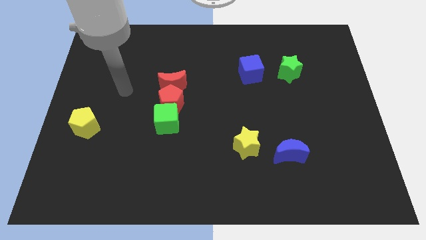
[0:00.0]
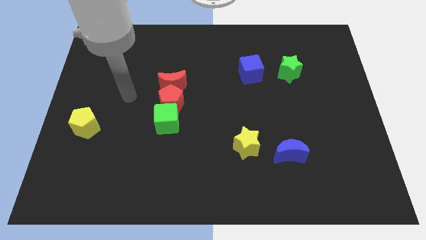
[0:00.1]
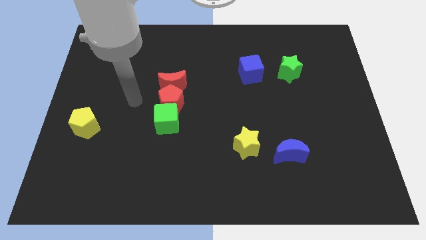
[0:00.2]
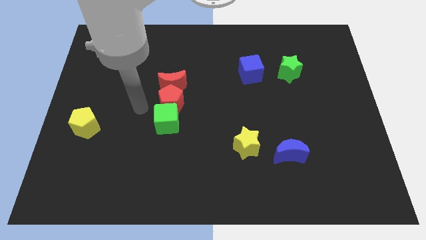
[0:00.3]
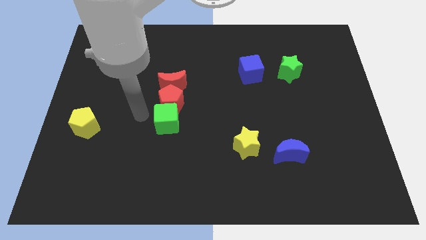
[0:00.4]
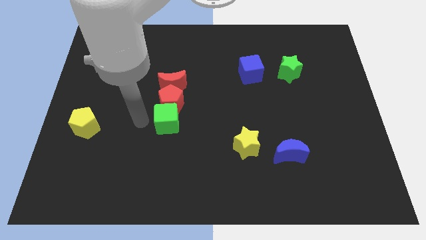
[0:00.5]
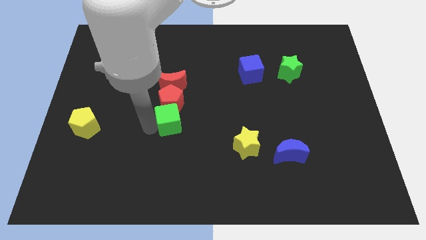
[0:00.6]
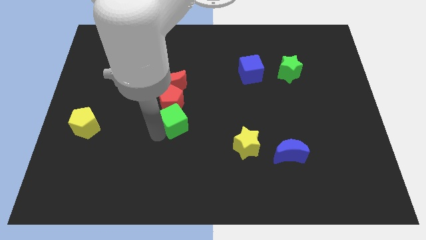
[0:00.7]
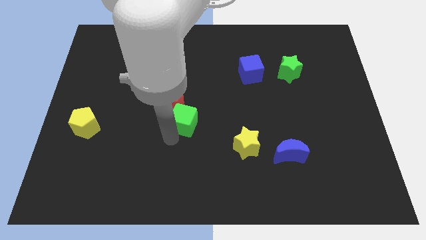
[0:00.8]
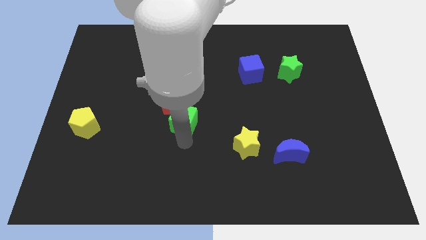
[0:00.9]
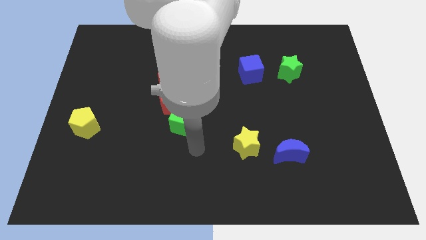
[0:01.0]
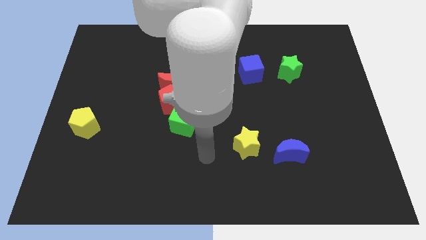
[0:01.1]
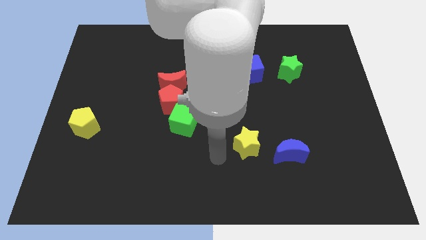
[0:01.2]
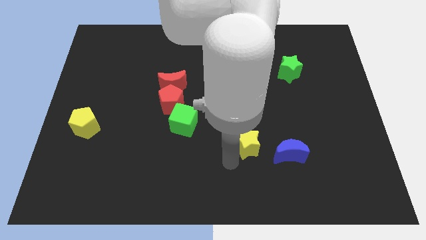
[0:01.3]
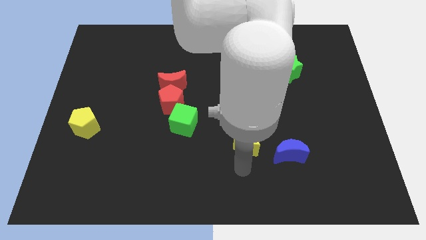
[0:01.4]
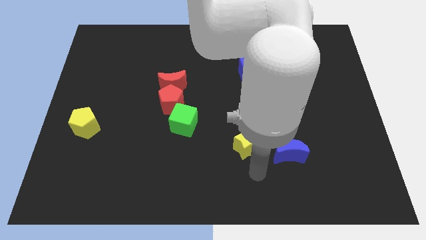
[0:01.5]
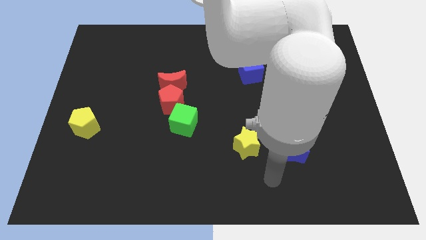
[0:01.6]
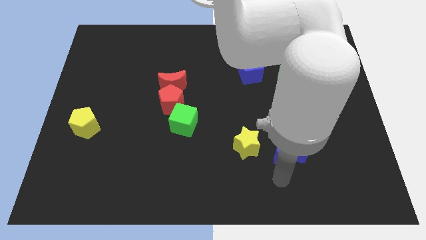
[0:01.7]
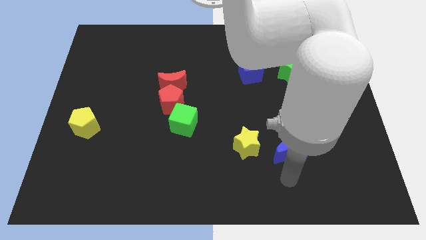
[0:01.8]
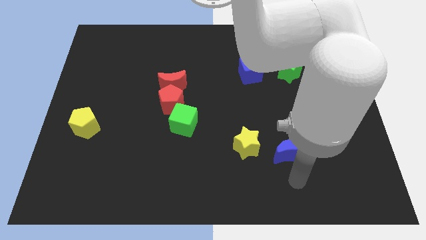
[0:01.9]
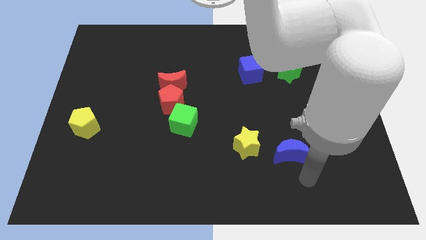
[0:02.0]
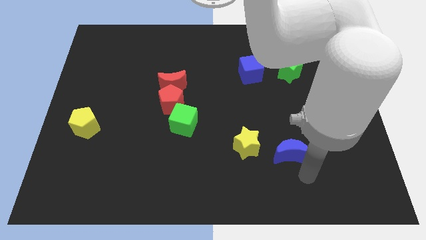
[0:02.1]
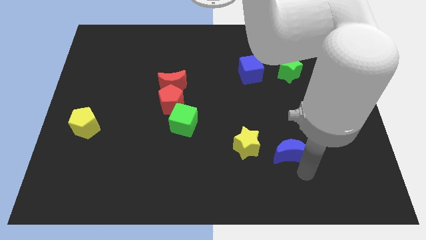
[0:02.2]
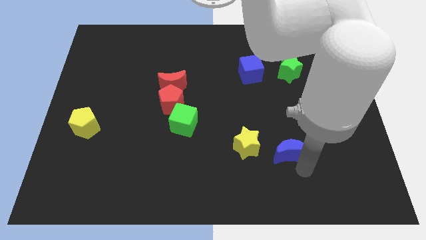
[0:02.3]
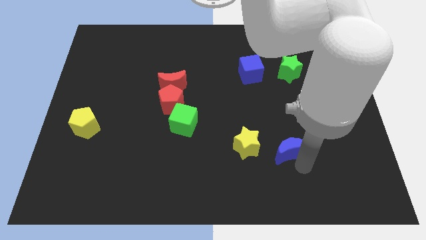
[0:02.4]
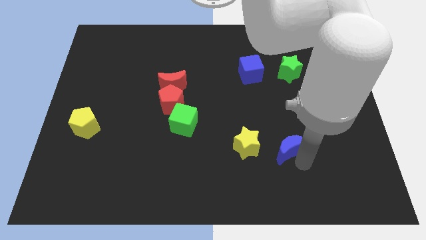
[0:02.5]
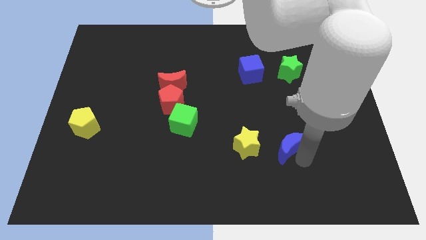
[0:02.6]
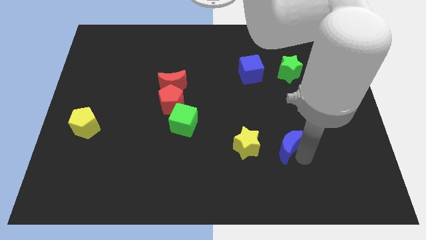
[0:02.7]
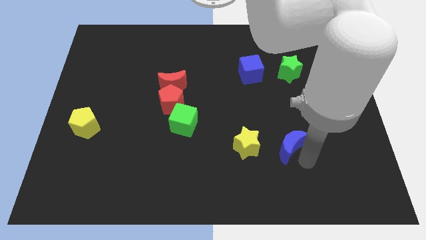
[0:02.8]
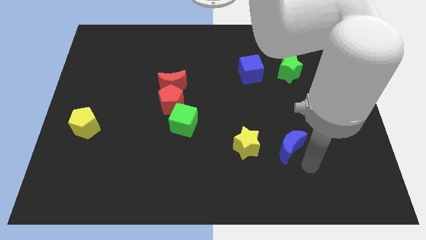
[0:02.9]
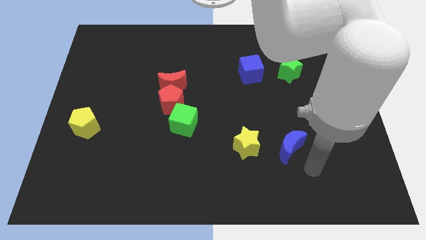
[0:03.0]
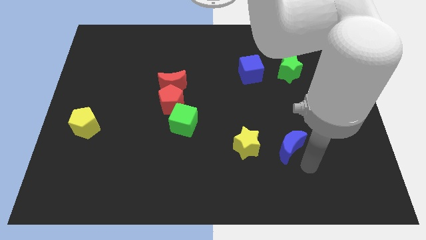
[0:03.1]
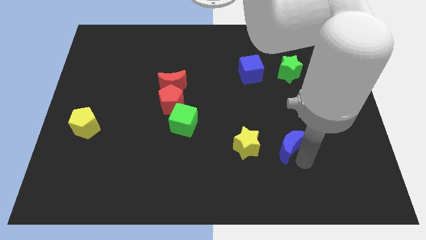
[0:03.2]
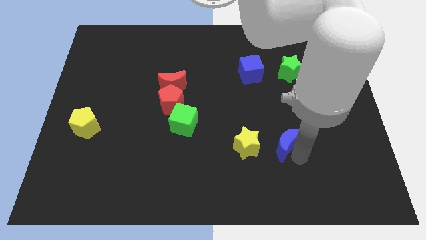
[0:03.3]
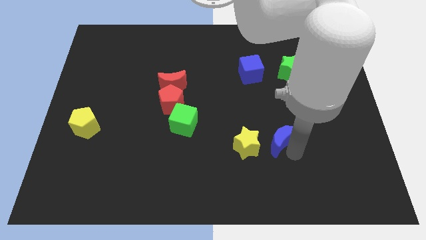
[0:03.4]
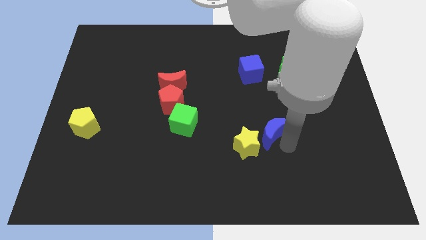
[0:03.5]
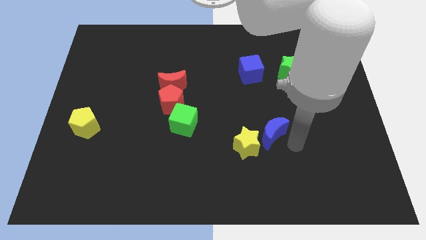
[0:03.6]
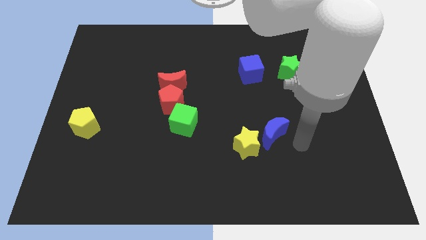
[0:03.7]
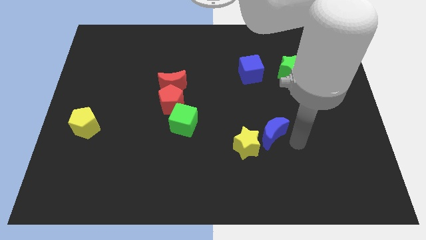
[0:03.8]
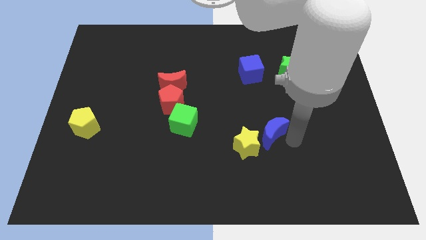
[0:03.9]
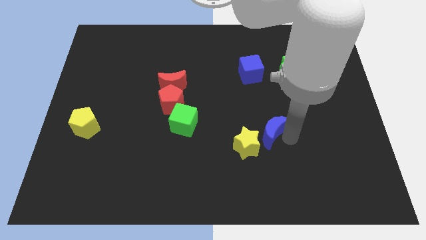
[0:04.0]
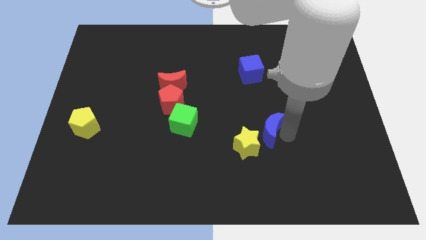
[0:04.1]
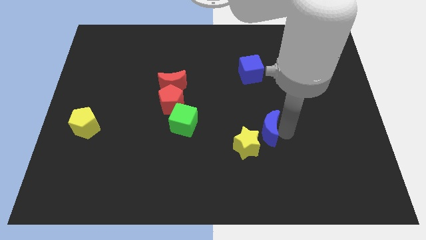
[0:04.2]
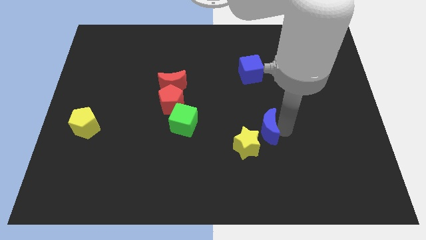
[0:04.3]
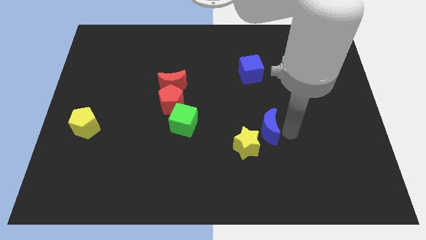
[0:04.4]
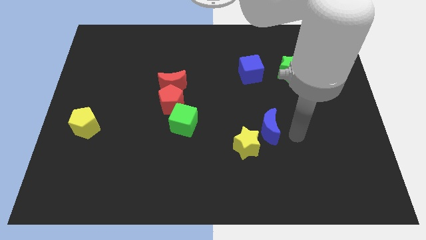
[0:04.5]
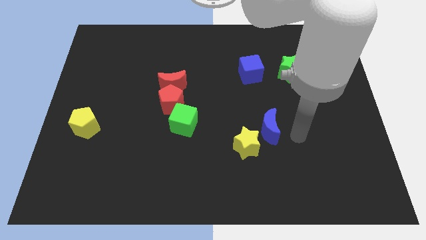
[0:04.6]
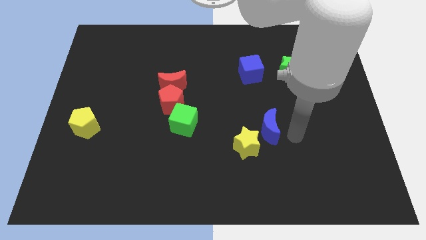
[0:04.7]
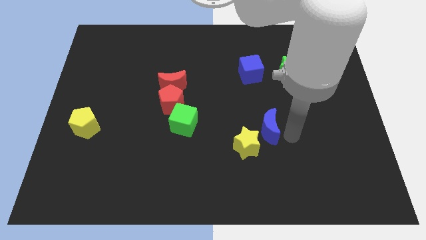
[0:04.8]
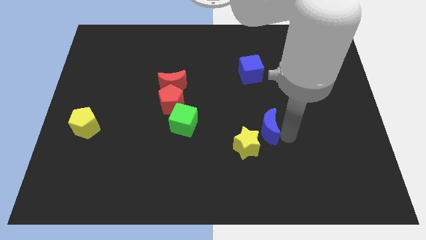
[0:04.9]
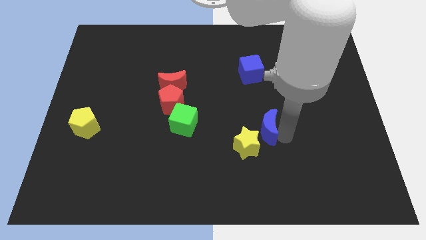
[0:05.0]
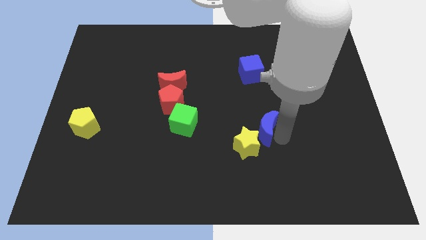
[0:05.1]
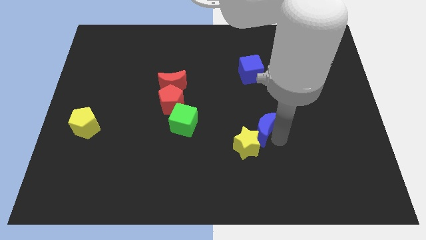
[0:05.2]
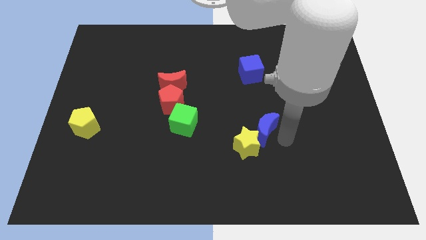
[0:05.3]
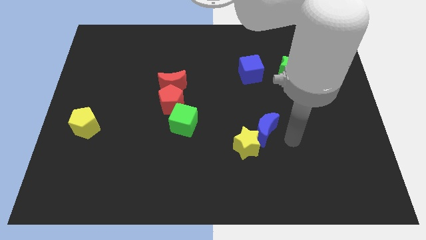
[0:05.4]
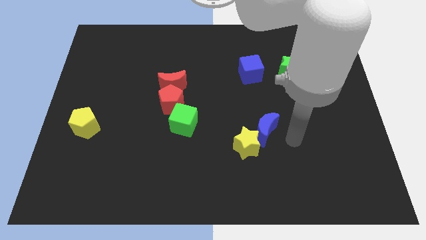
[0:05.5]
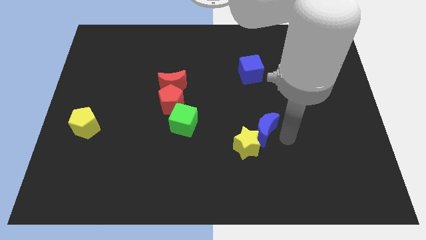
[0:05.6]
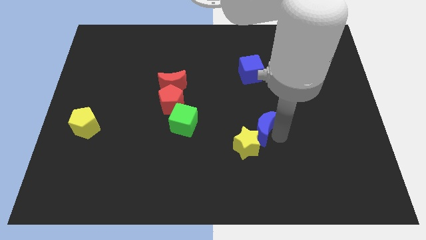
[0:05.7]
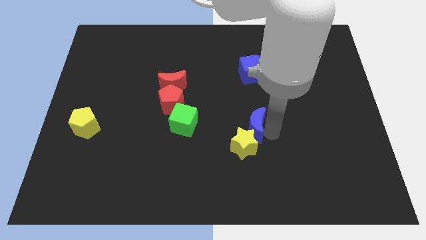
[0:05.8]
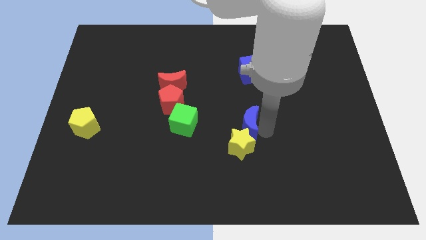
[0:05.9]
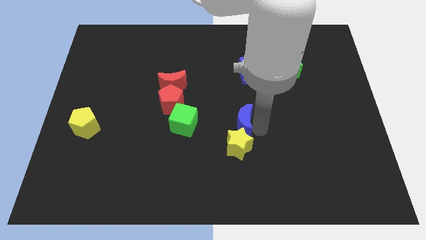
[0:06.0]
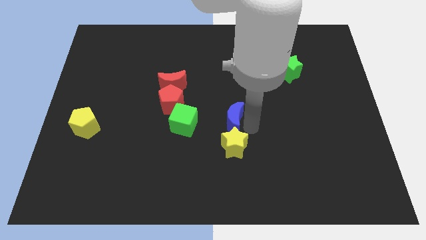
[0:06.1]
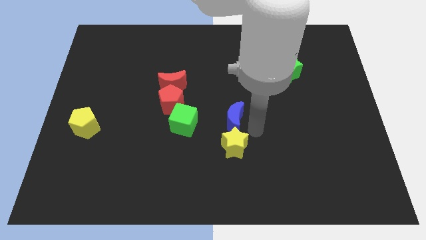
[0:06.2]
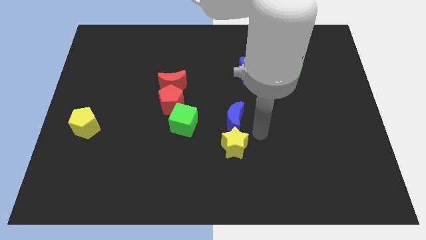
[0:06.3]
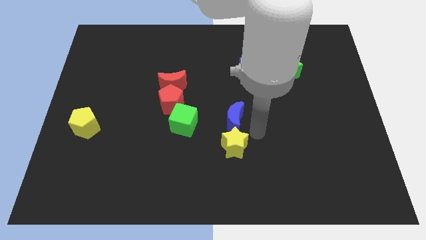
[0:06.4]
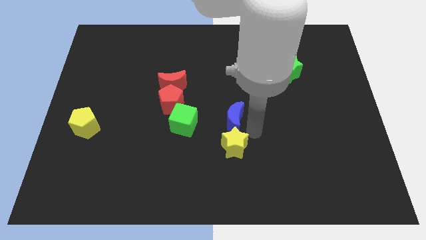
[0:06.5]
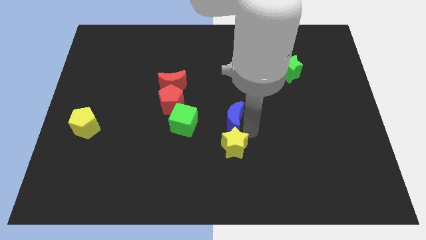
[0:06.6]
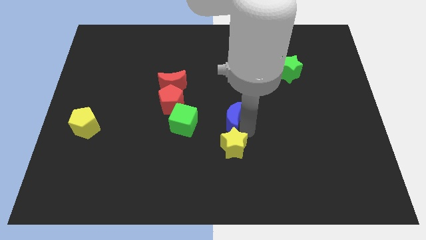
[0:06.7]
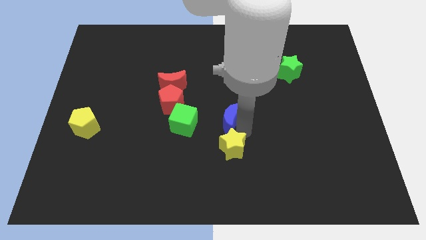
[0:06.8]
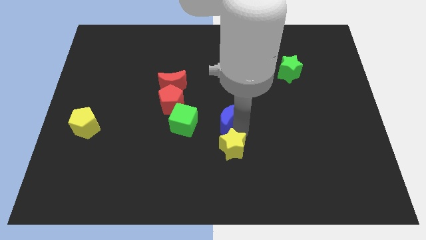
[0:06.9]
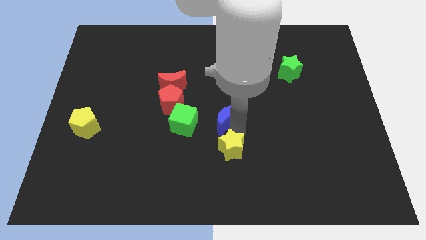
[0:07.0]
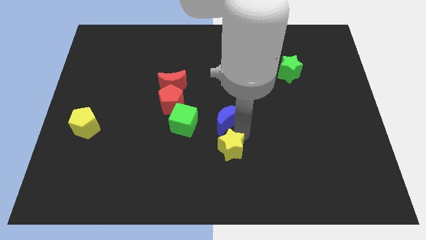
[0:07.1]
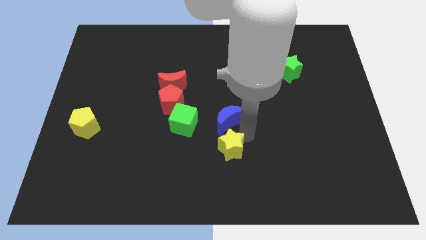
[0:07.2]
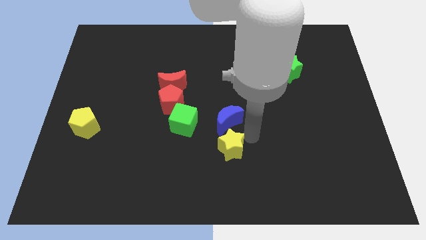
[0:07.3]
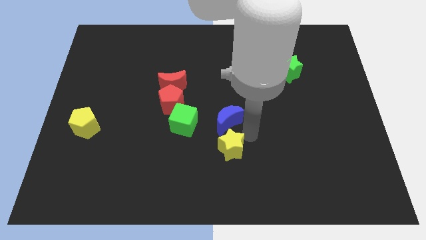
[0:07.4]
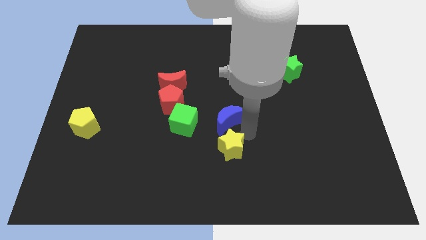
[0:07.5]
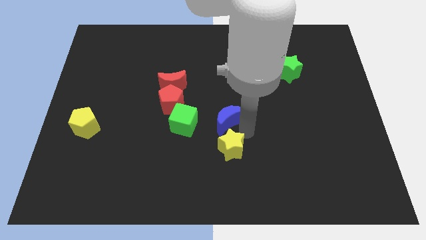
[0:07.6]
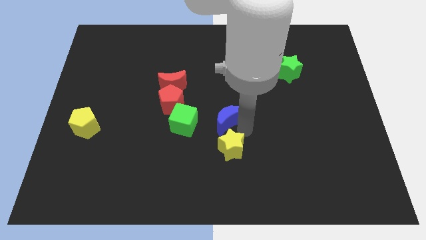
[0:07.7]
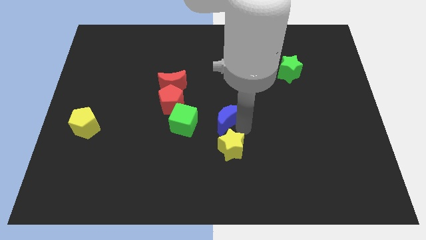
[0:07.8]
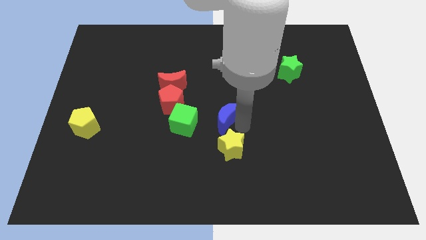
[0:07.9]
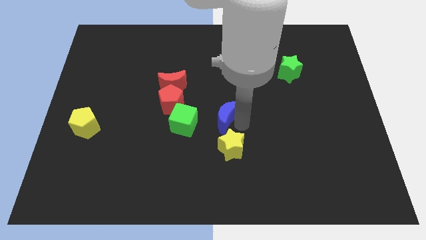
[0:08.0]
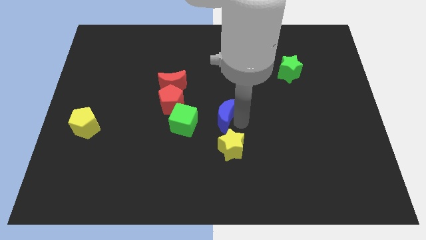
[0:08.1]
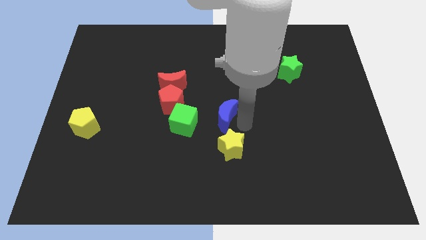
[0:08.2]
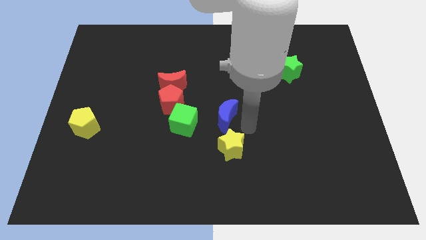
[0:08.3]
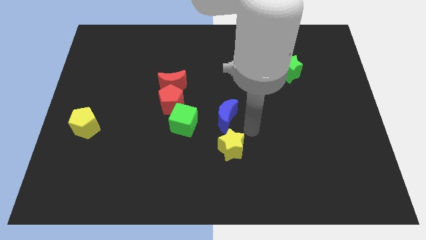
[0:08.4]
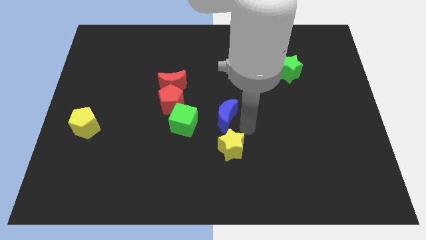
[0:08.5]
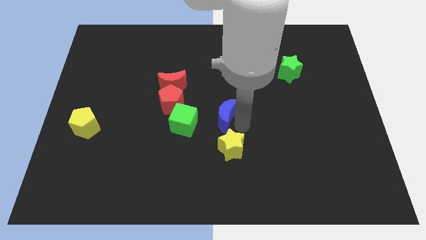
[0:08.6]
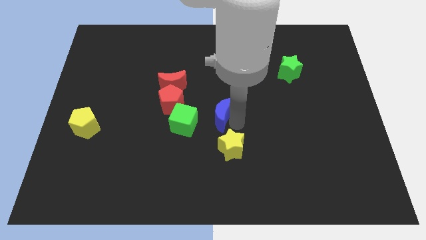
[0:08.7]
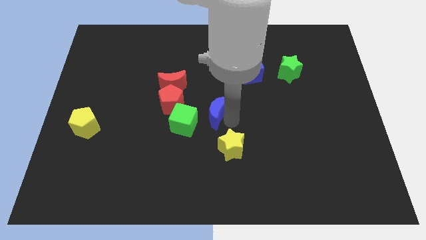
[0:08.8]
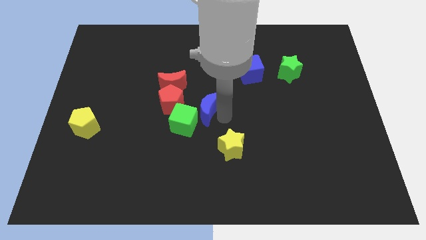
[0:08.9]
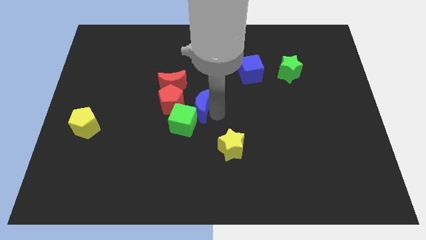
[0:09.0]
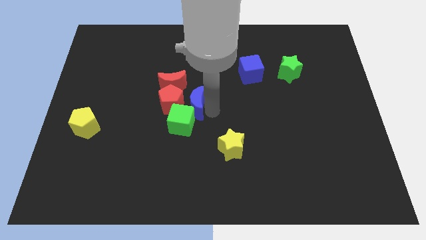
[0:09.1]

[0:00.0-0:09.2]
put the blue moon towards the red pentagon
